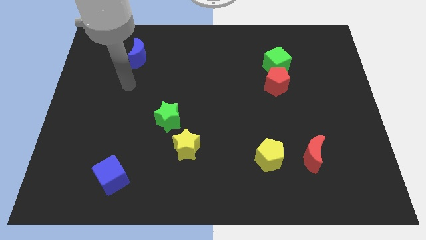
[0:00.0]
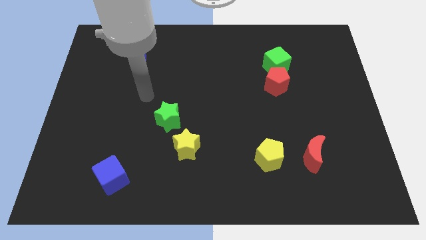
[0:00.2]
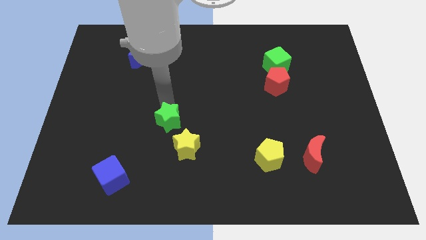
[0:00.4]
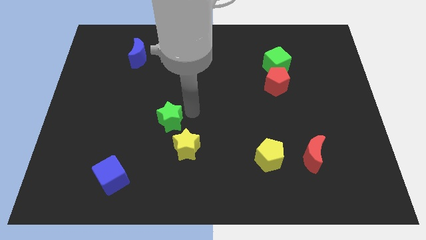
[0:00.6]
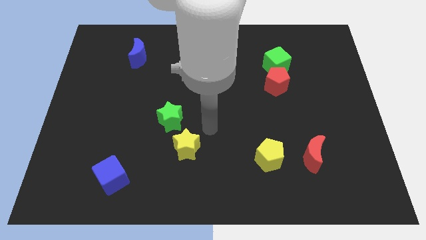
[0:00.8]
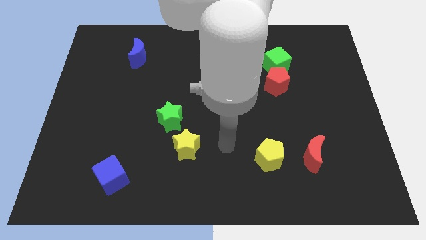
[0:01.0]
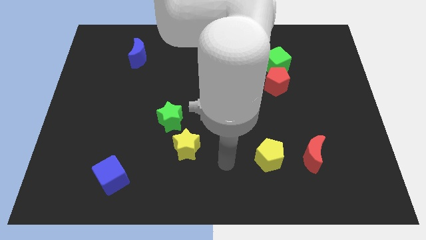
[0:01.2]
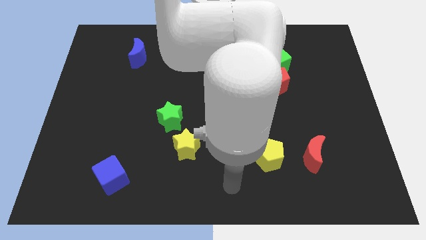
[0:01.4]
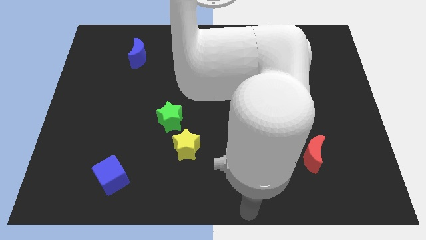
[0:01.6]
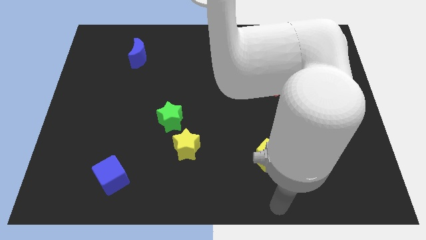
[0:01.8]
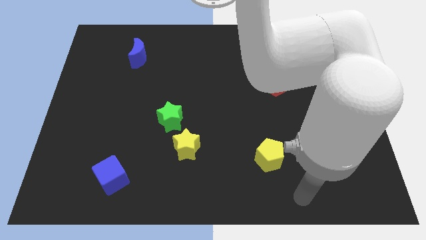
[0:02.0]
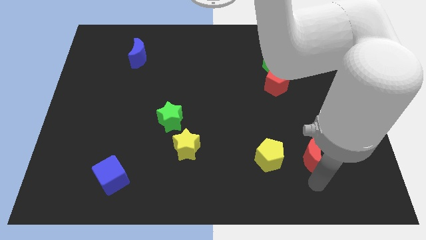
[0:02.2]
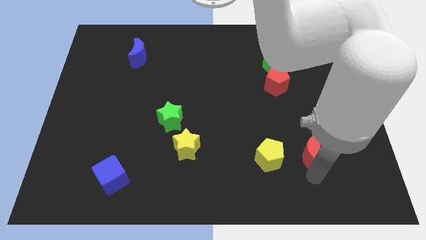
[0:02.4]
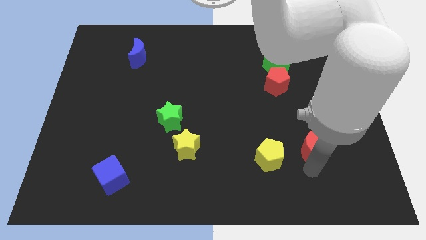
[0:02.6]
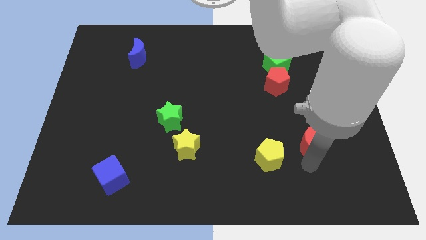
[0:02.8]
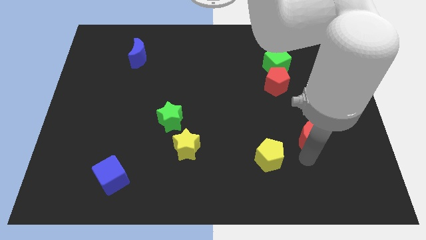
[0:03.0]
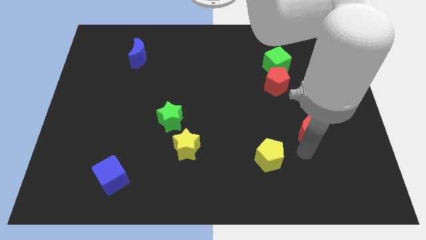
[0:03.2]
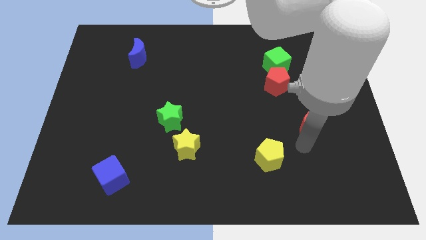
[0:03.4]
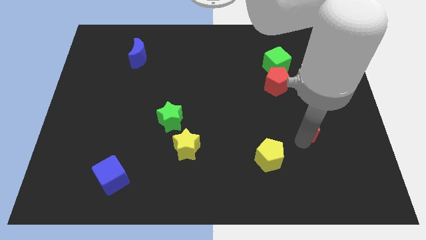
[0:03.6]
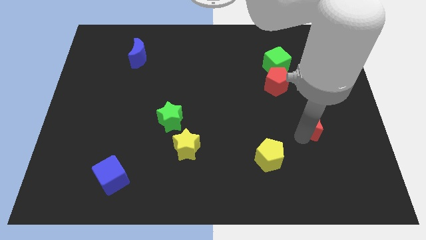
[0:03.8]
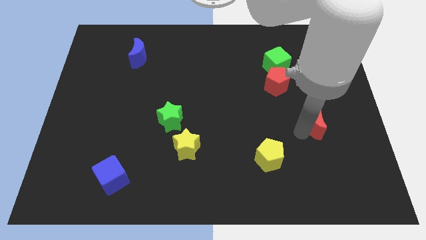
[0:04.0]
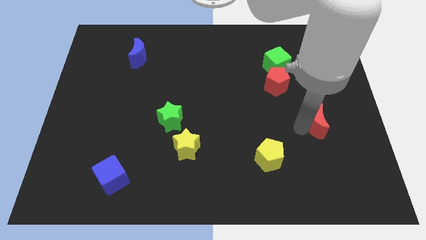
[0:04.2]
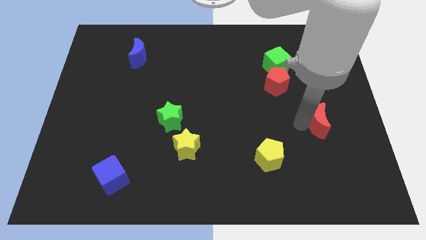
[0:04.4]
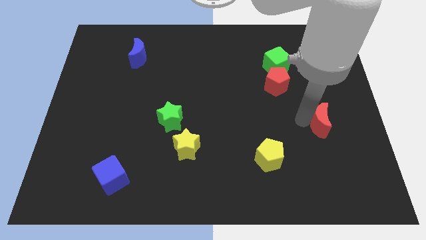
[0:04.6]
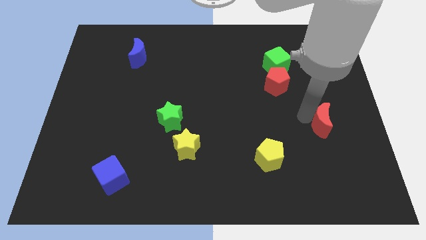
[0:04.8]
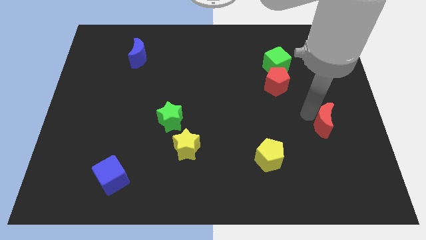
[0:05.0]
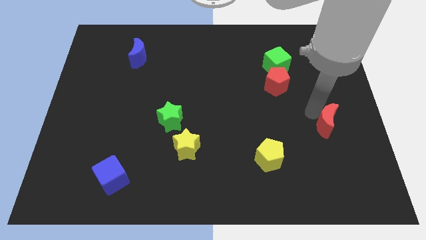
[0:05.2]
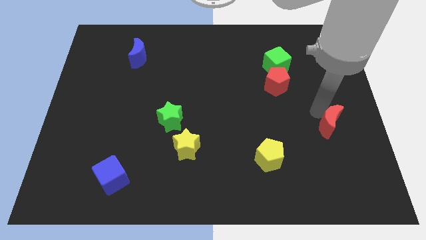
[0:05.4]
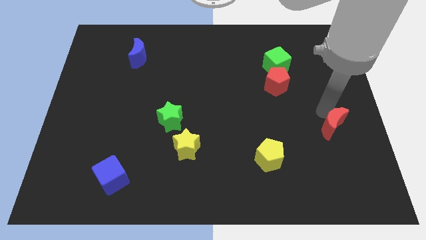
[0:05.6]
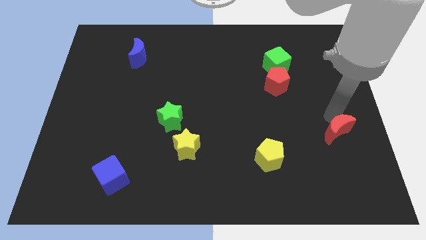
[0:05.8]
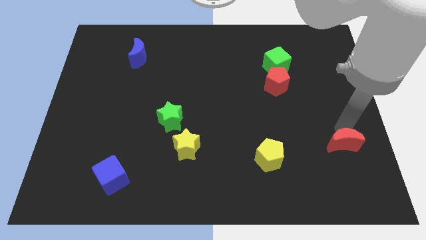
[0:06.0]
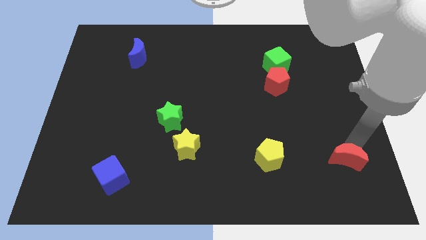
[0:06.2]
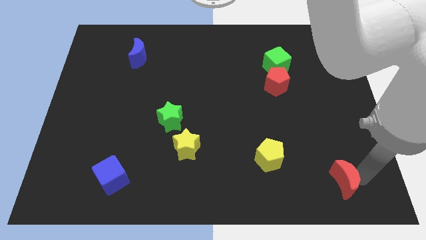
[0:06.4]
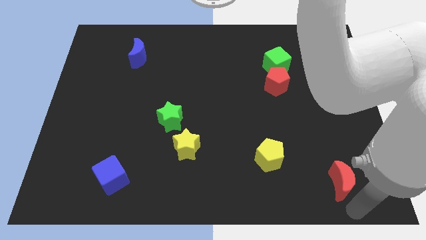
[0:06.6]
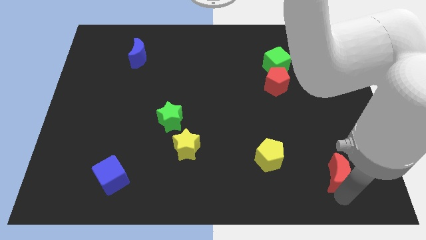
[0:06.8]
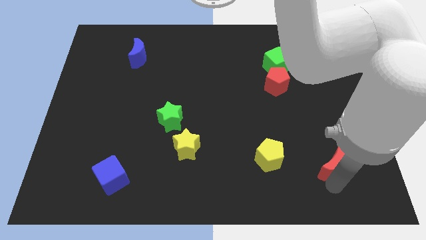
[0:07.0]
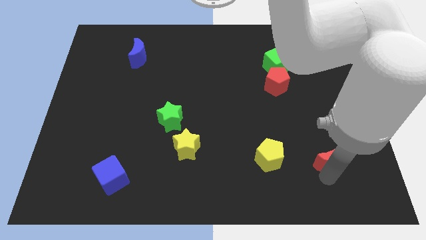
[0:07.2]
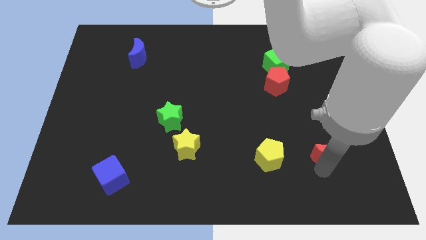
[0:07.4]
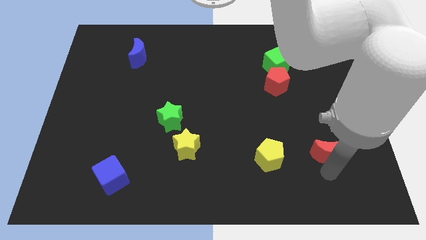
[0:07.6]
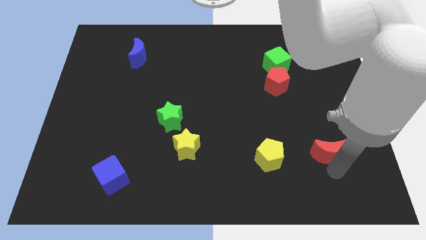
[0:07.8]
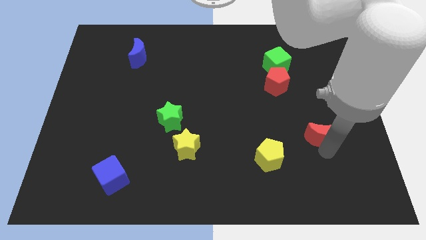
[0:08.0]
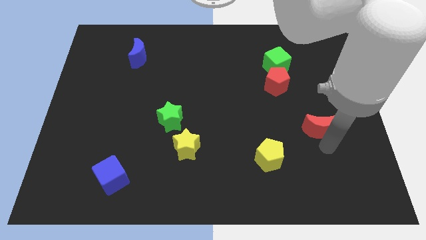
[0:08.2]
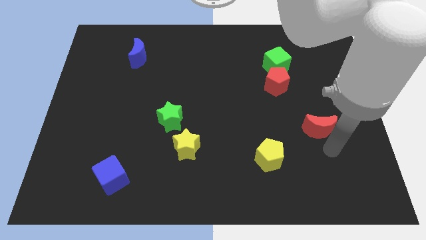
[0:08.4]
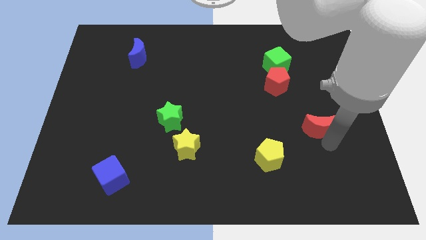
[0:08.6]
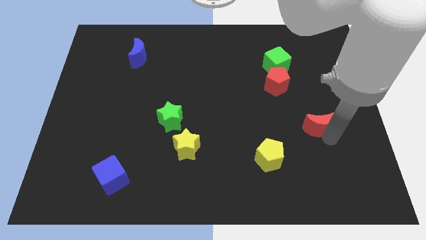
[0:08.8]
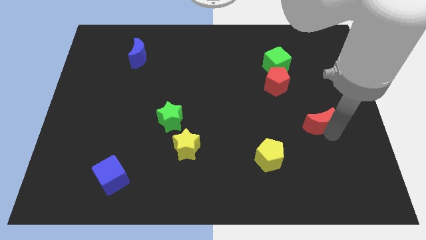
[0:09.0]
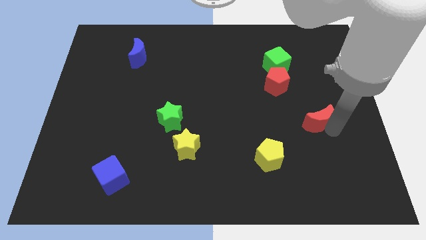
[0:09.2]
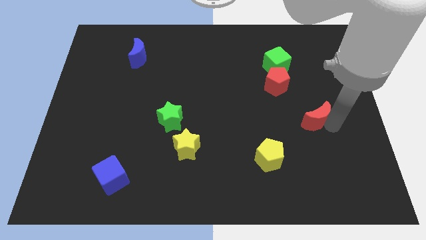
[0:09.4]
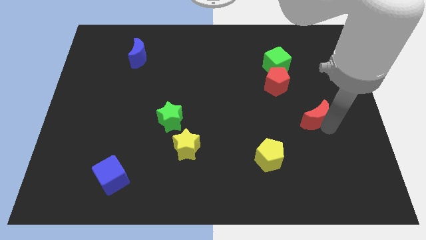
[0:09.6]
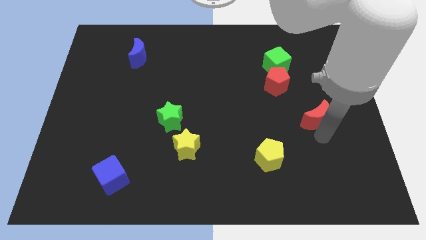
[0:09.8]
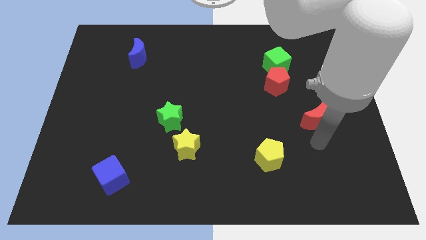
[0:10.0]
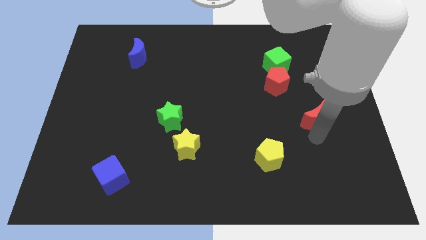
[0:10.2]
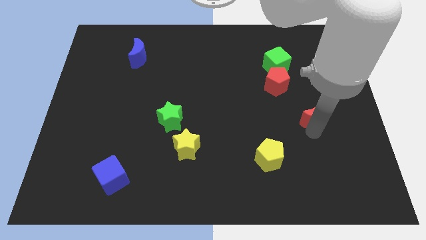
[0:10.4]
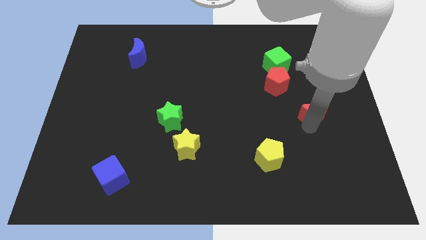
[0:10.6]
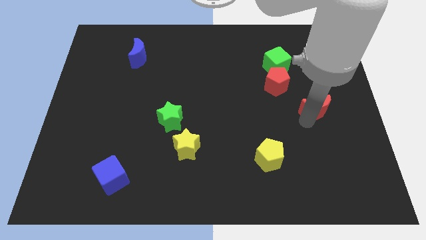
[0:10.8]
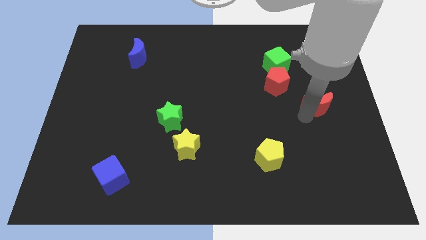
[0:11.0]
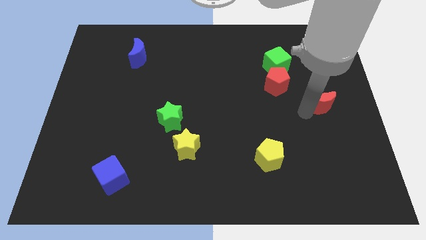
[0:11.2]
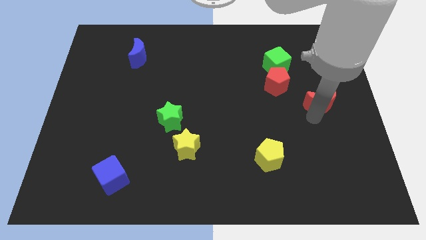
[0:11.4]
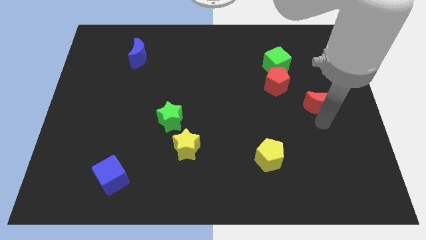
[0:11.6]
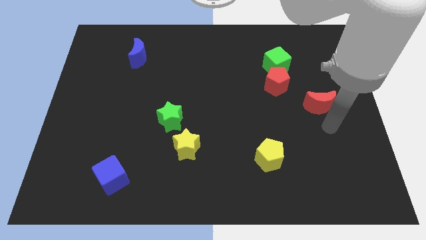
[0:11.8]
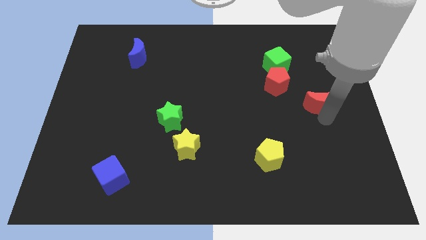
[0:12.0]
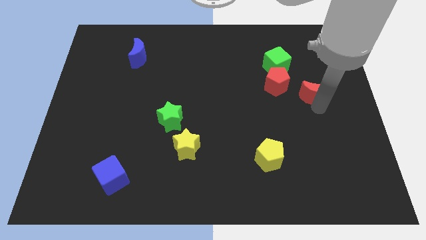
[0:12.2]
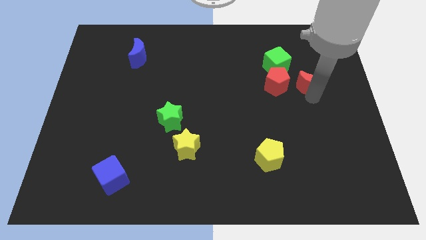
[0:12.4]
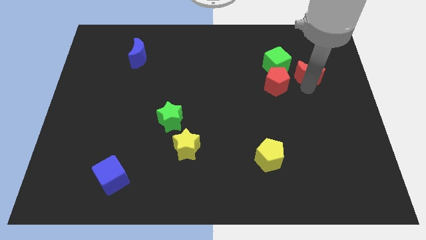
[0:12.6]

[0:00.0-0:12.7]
slide the red moon just right of the green cube

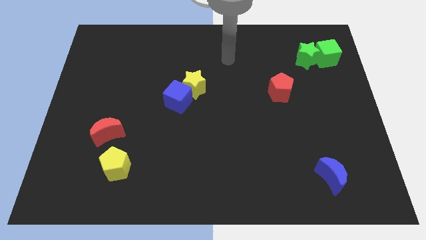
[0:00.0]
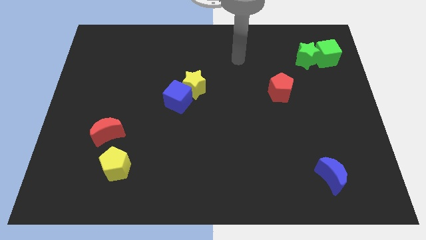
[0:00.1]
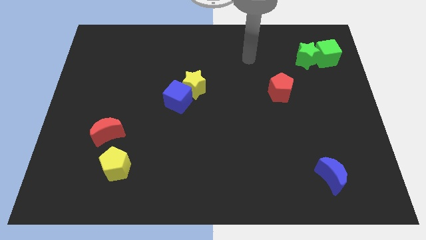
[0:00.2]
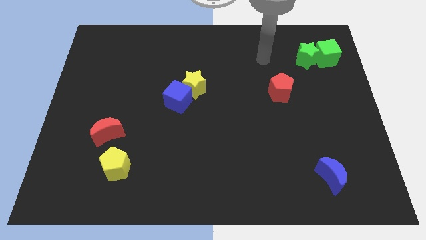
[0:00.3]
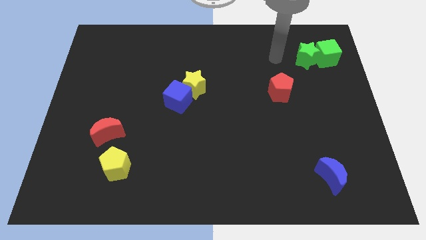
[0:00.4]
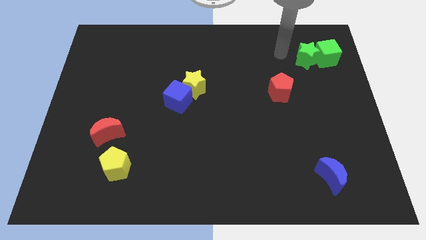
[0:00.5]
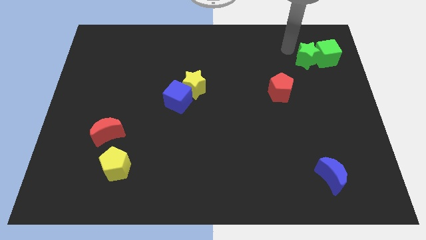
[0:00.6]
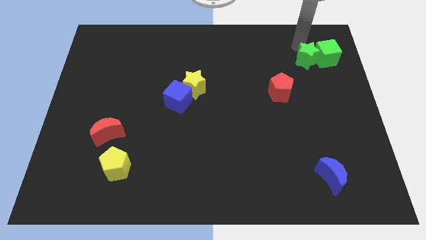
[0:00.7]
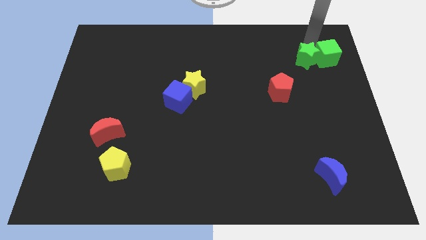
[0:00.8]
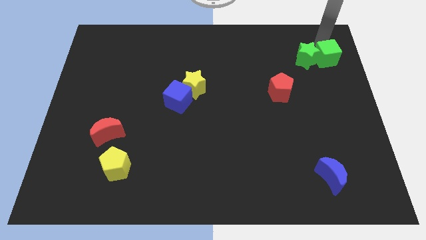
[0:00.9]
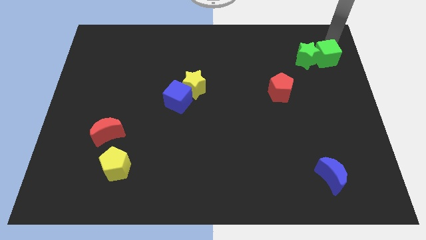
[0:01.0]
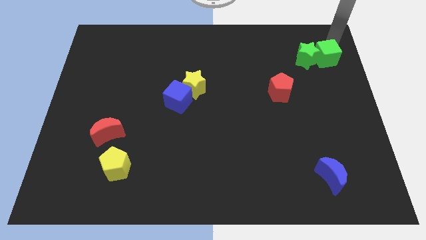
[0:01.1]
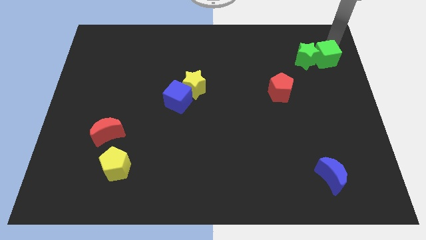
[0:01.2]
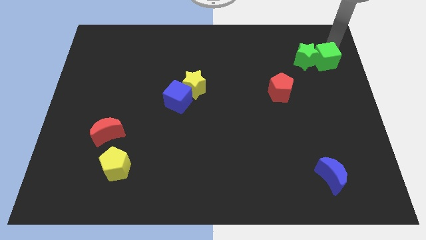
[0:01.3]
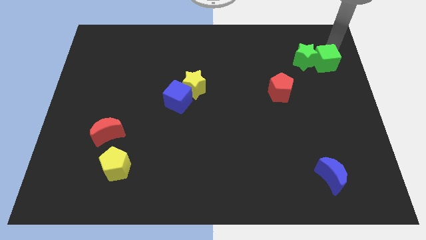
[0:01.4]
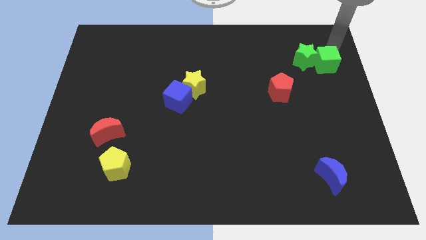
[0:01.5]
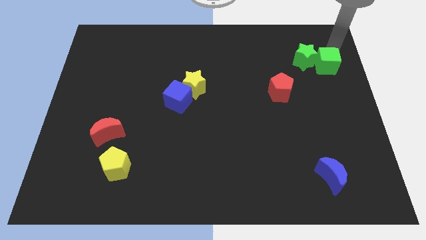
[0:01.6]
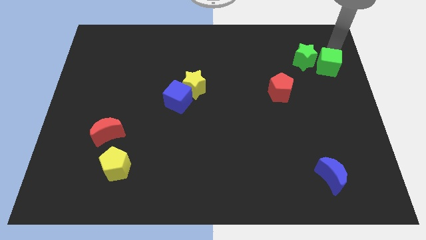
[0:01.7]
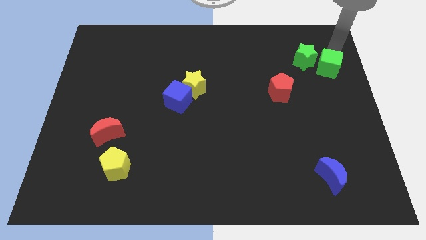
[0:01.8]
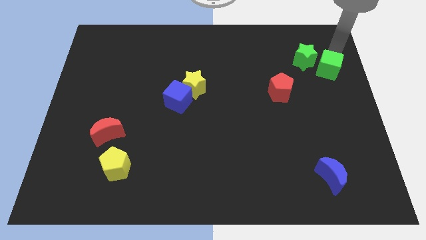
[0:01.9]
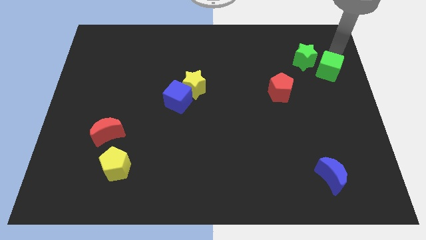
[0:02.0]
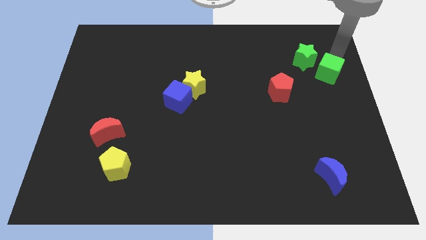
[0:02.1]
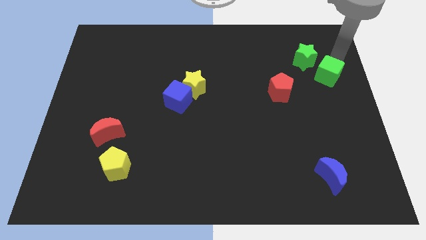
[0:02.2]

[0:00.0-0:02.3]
slide the green cube below the green star
